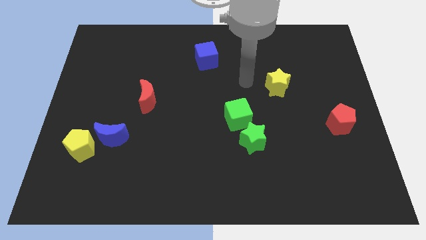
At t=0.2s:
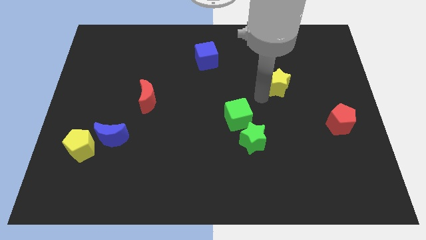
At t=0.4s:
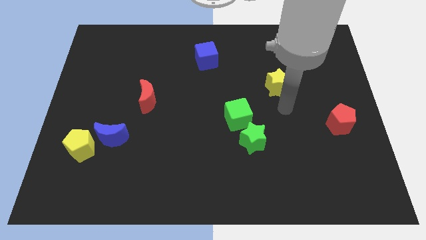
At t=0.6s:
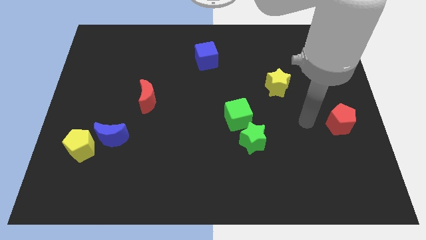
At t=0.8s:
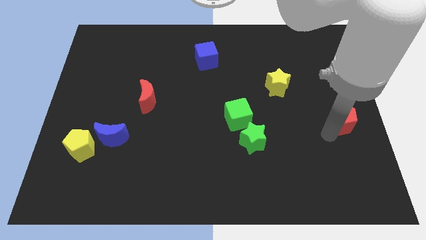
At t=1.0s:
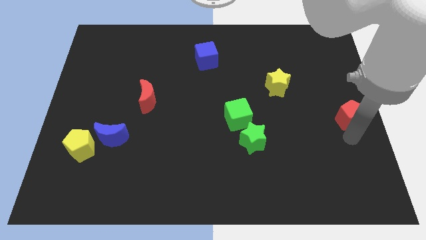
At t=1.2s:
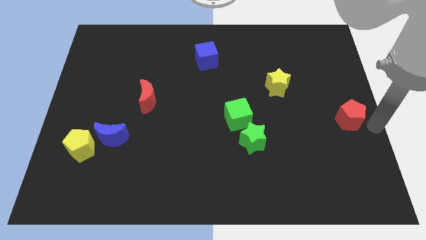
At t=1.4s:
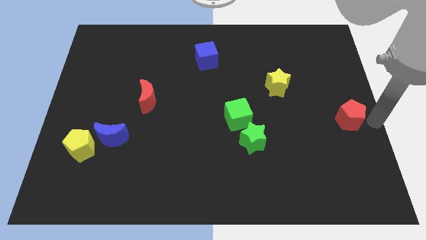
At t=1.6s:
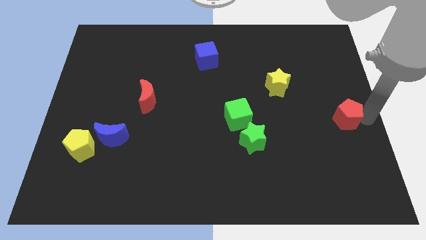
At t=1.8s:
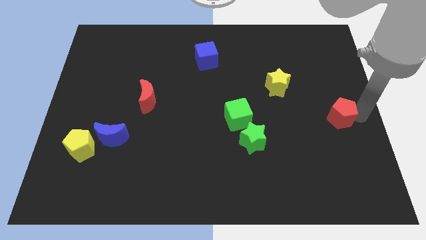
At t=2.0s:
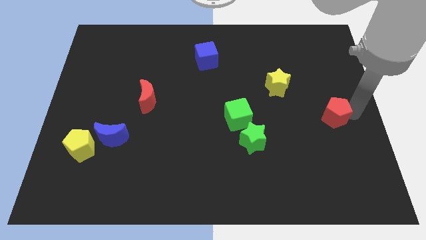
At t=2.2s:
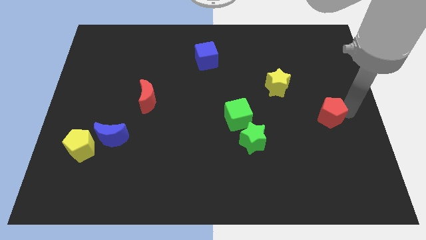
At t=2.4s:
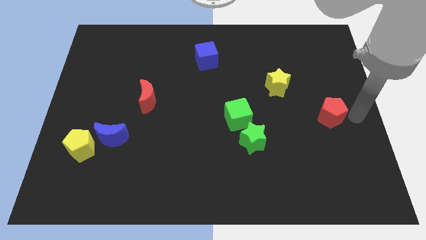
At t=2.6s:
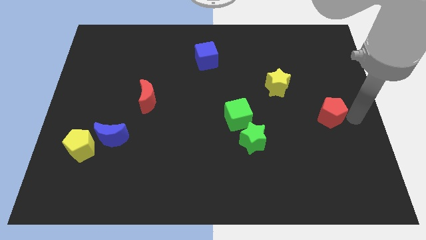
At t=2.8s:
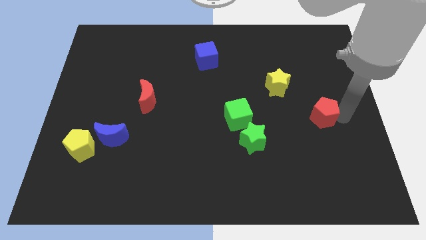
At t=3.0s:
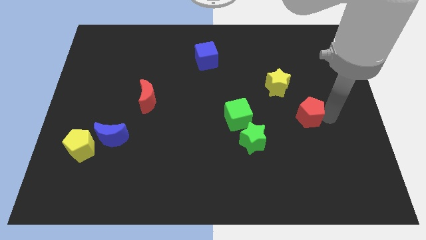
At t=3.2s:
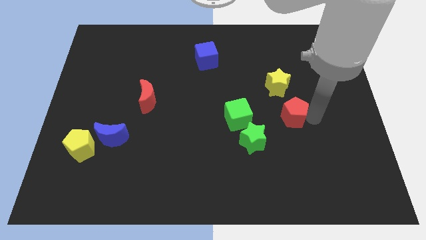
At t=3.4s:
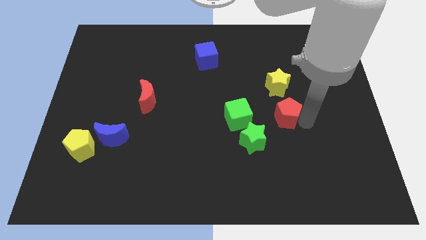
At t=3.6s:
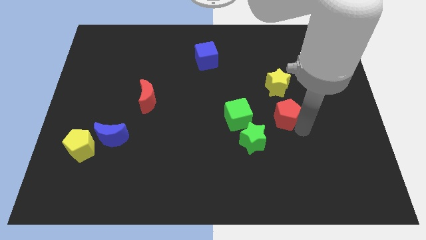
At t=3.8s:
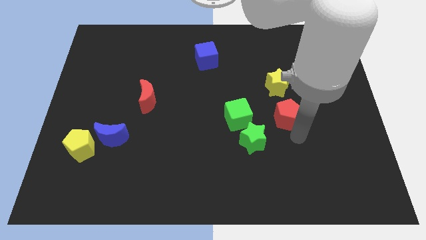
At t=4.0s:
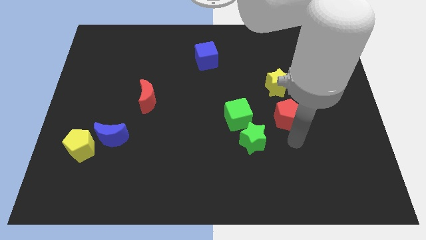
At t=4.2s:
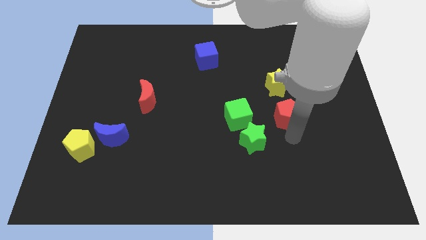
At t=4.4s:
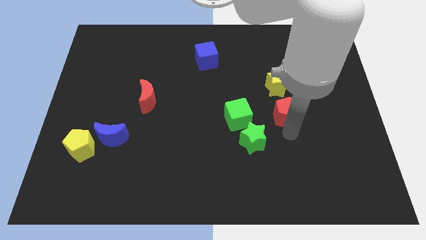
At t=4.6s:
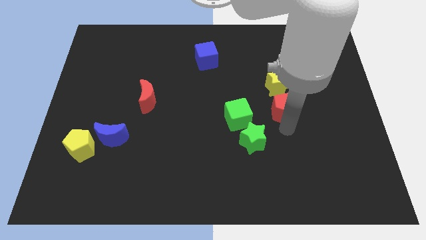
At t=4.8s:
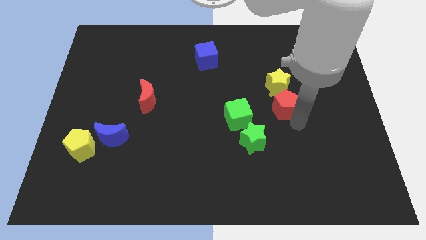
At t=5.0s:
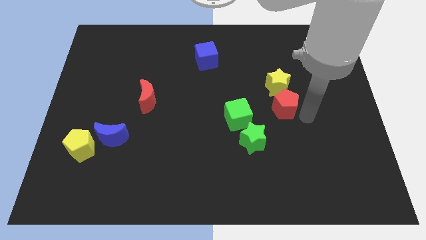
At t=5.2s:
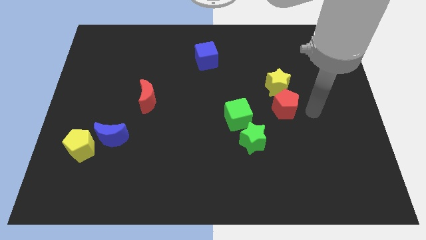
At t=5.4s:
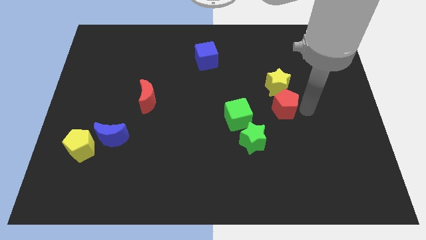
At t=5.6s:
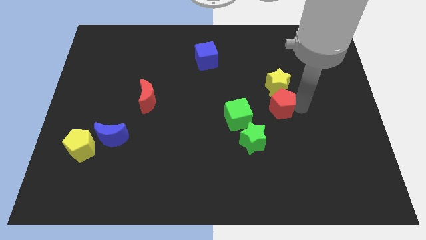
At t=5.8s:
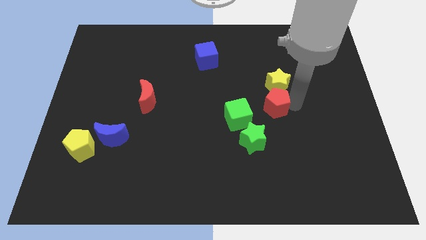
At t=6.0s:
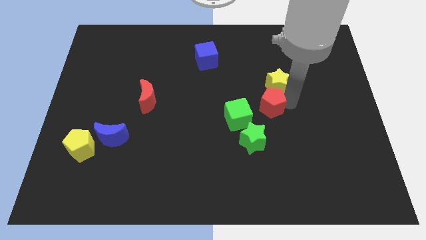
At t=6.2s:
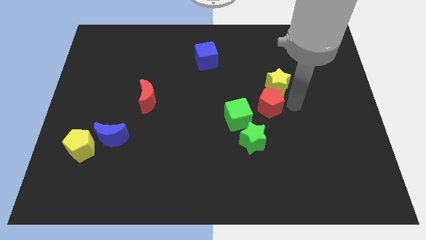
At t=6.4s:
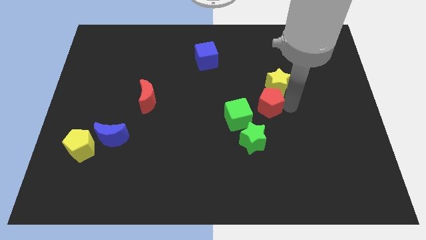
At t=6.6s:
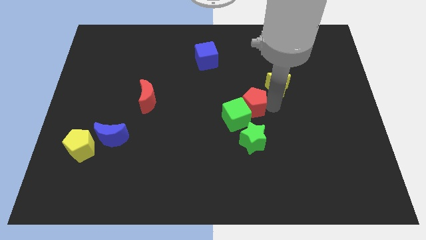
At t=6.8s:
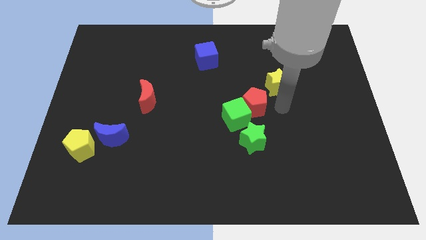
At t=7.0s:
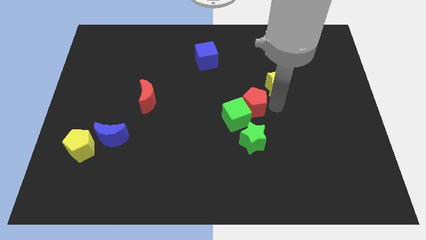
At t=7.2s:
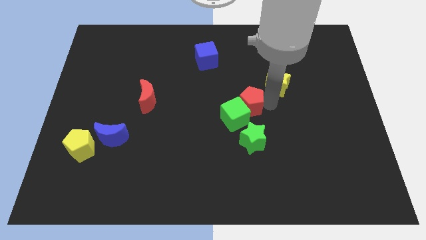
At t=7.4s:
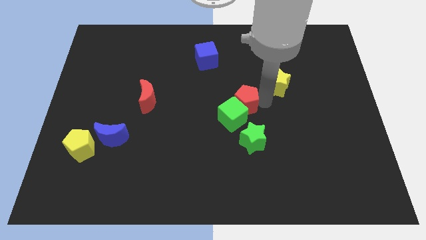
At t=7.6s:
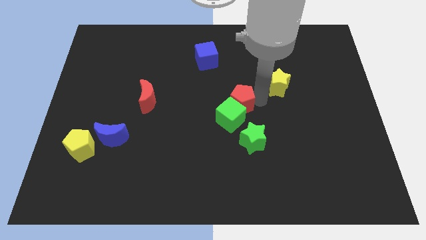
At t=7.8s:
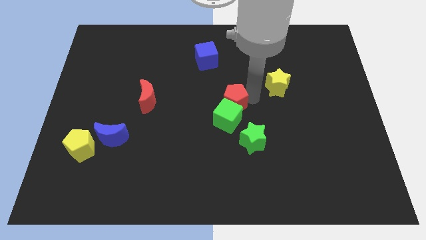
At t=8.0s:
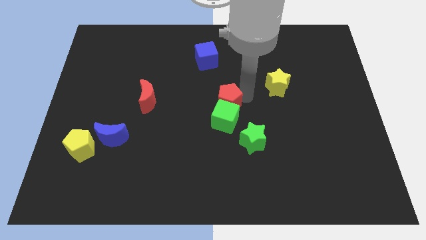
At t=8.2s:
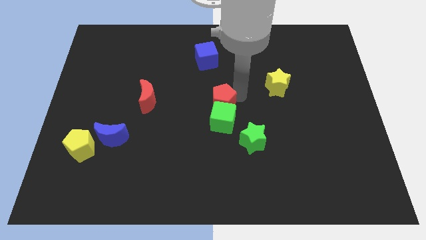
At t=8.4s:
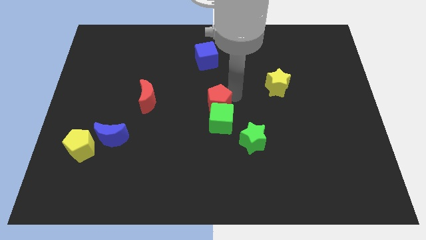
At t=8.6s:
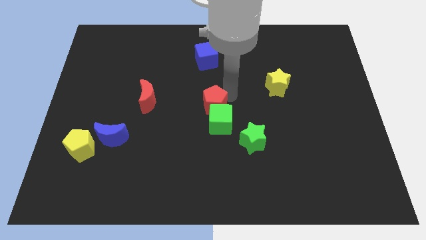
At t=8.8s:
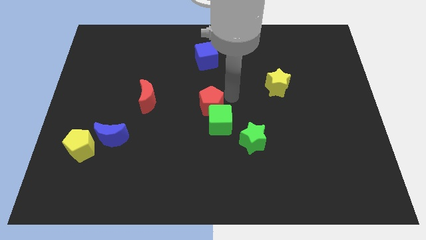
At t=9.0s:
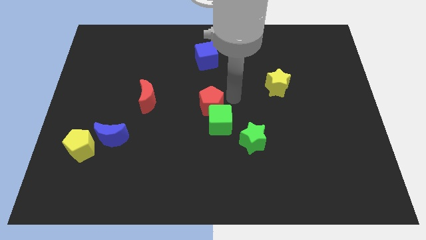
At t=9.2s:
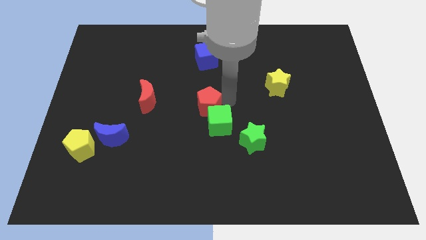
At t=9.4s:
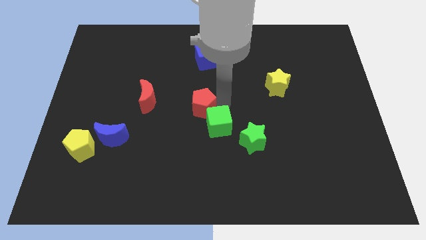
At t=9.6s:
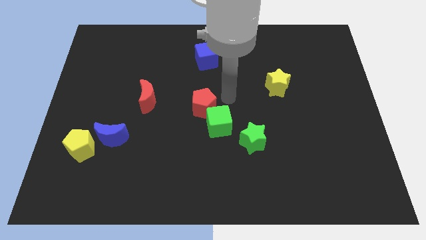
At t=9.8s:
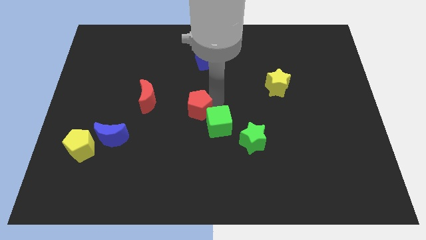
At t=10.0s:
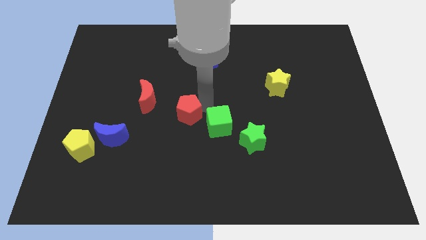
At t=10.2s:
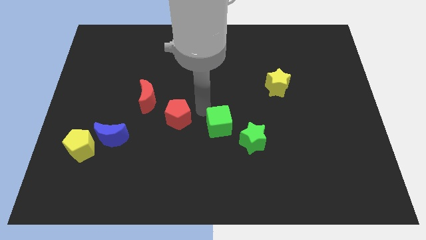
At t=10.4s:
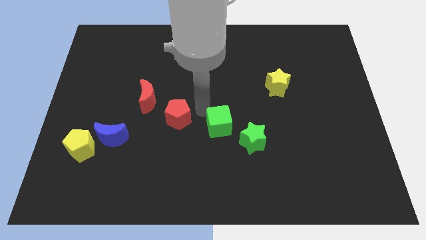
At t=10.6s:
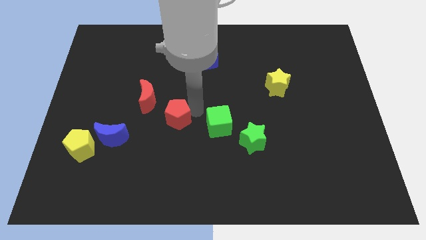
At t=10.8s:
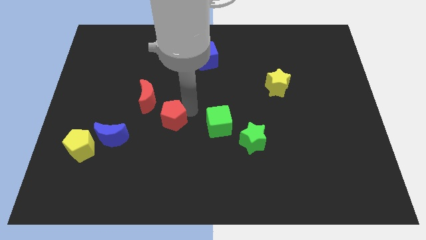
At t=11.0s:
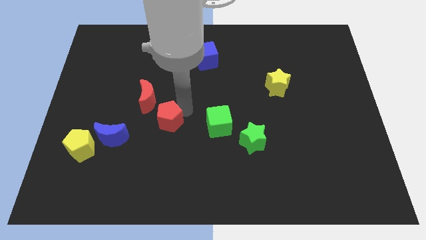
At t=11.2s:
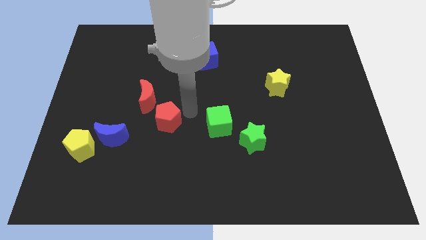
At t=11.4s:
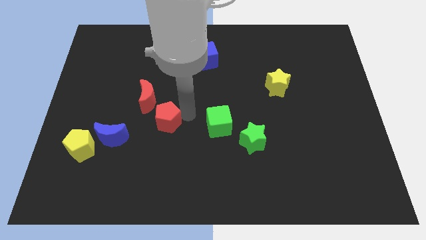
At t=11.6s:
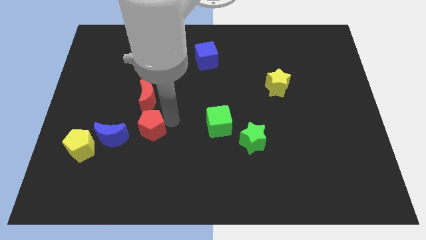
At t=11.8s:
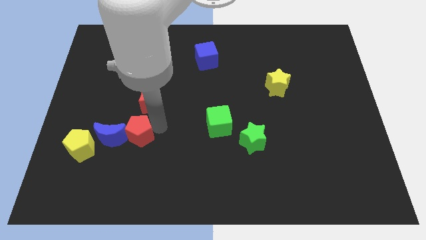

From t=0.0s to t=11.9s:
push the red pentagon to the blue moon

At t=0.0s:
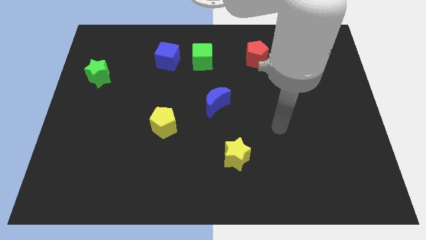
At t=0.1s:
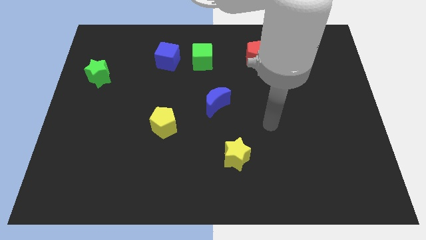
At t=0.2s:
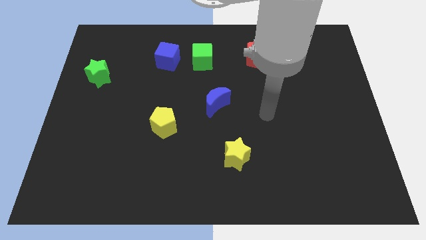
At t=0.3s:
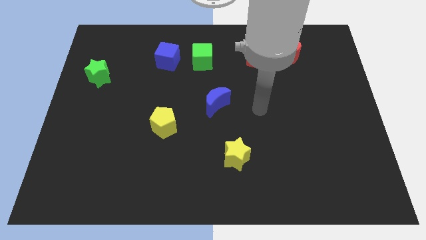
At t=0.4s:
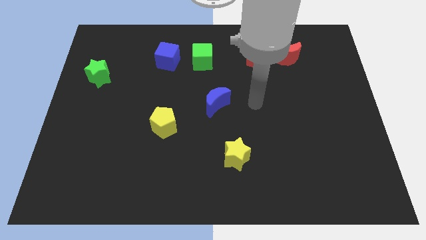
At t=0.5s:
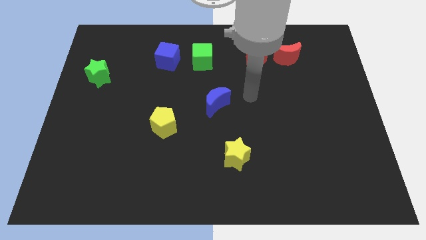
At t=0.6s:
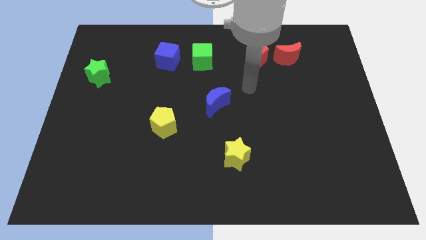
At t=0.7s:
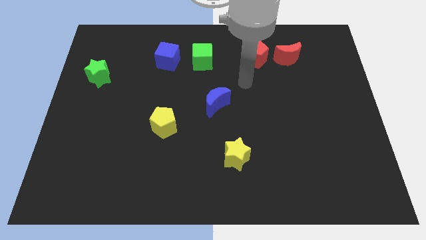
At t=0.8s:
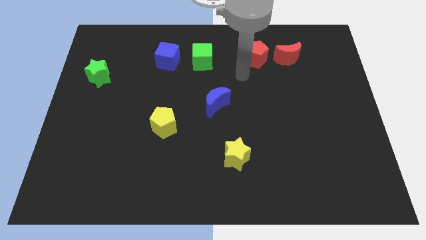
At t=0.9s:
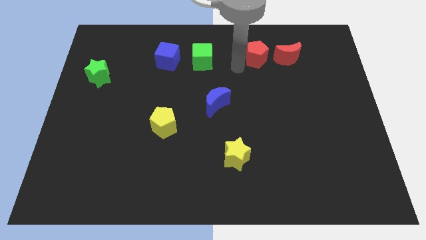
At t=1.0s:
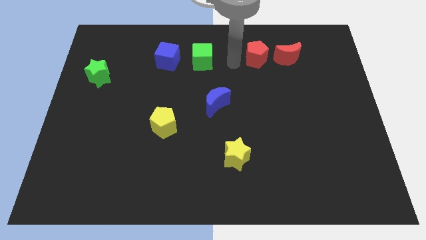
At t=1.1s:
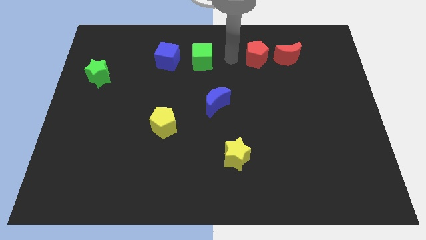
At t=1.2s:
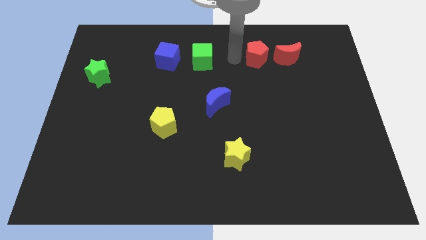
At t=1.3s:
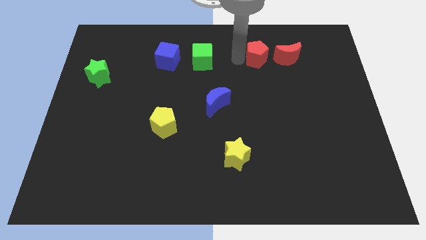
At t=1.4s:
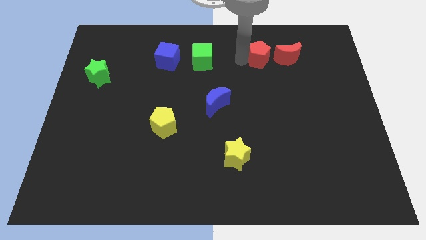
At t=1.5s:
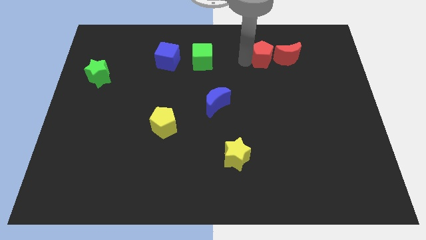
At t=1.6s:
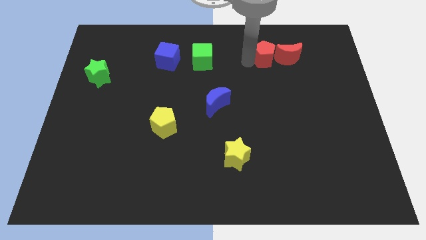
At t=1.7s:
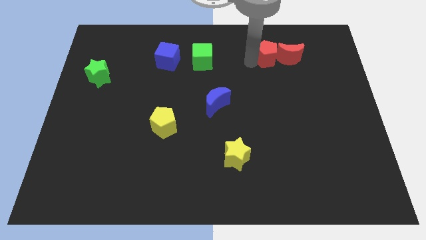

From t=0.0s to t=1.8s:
put the red pentagon towards the red moon
